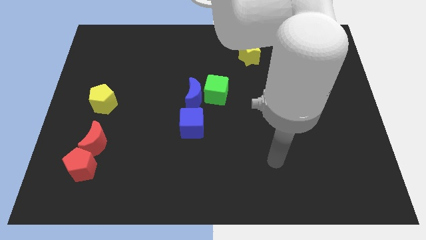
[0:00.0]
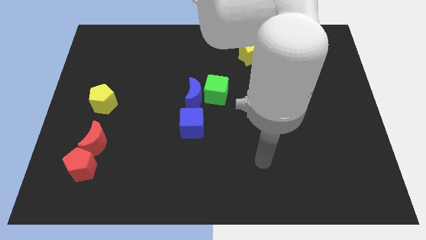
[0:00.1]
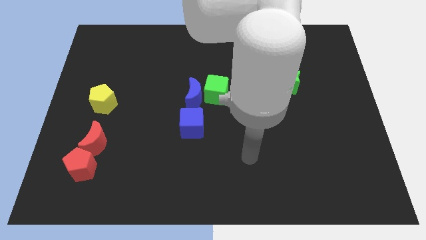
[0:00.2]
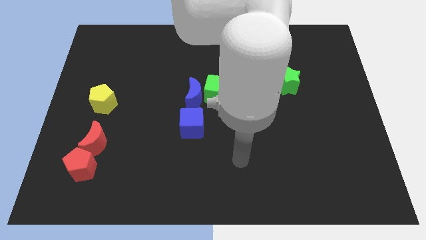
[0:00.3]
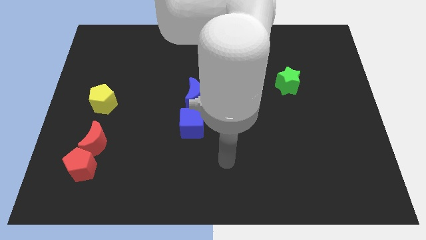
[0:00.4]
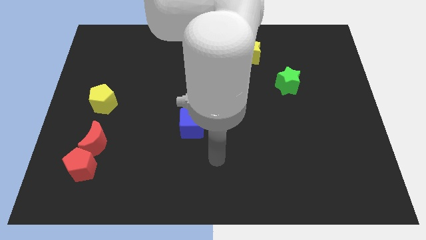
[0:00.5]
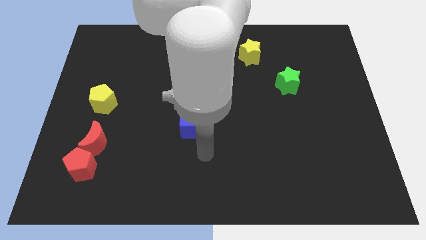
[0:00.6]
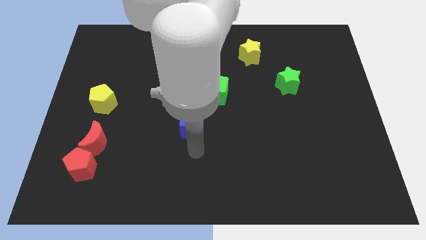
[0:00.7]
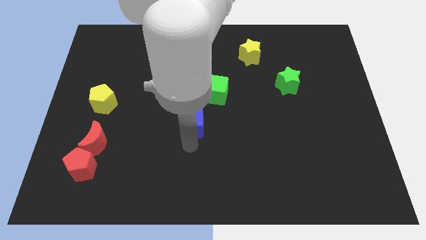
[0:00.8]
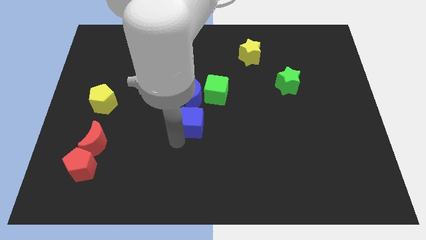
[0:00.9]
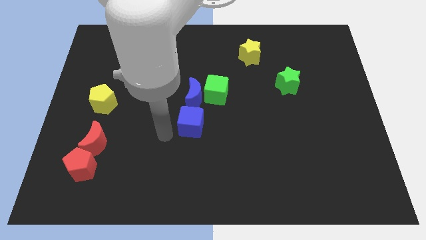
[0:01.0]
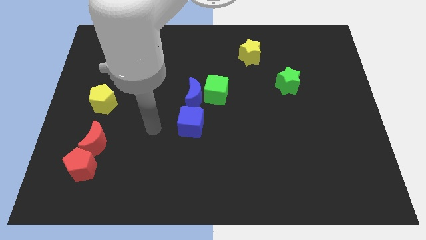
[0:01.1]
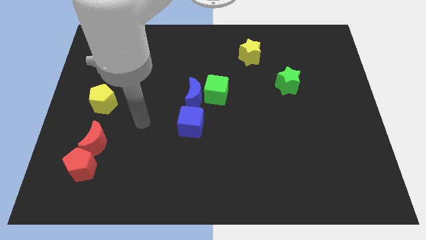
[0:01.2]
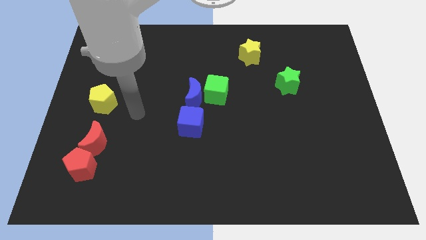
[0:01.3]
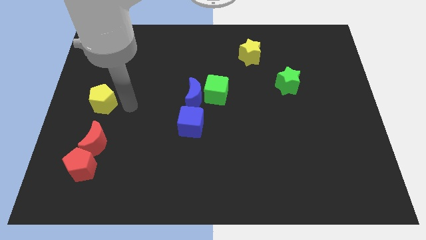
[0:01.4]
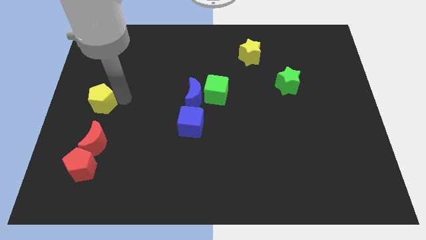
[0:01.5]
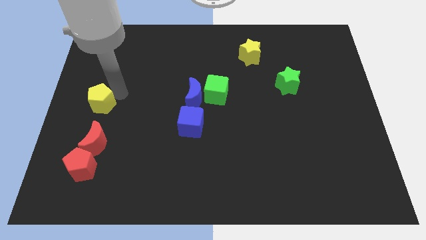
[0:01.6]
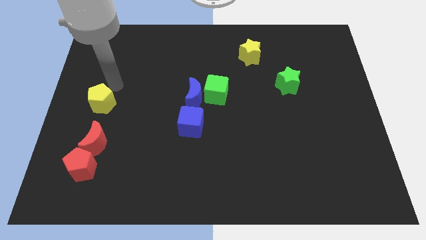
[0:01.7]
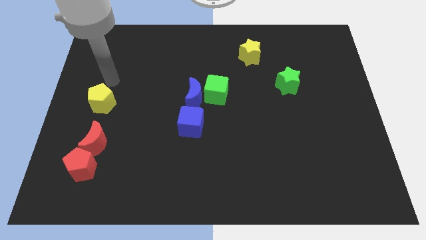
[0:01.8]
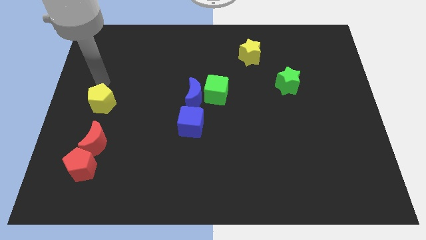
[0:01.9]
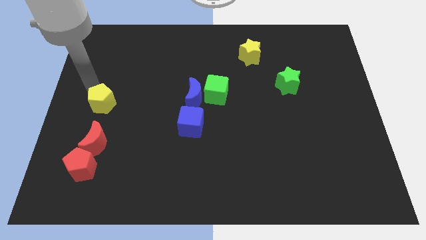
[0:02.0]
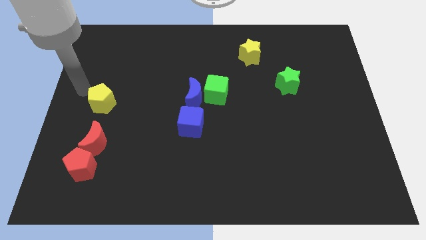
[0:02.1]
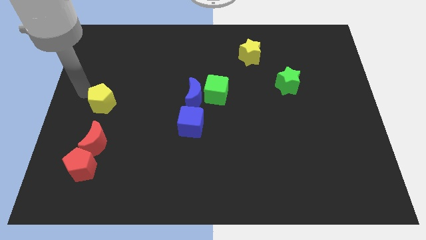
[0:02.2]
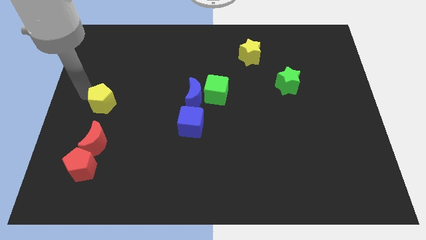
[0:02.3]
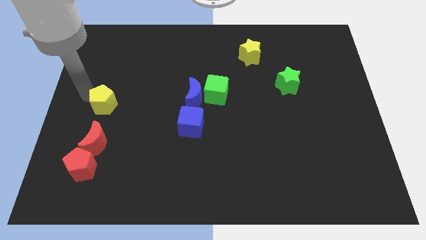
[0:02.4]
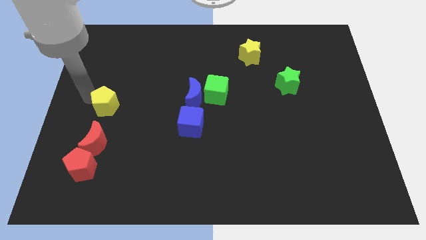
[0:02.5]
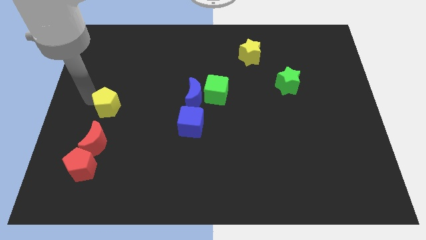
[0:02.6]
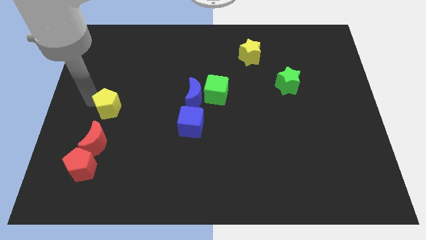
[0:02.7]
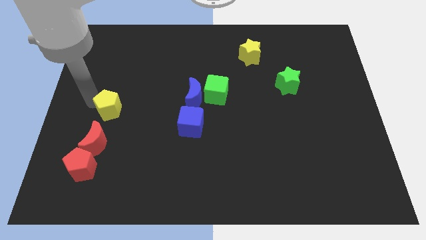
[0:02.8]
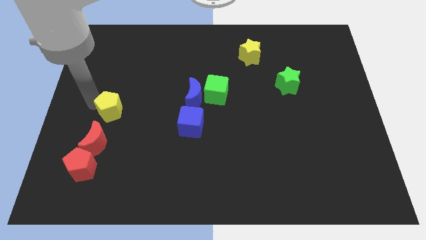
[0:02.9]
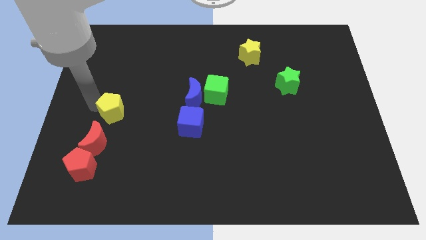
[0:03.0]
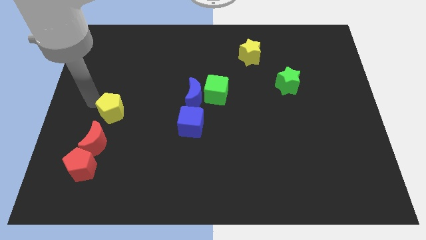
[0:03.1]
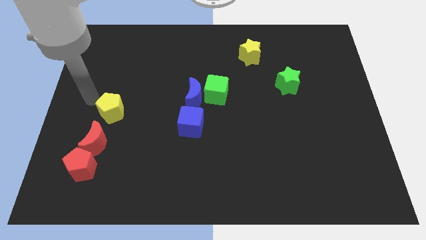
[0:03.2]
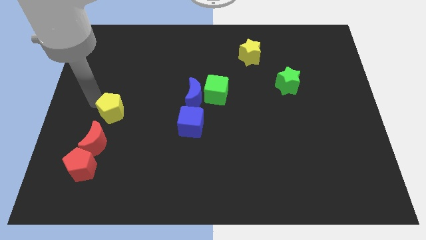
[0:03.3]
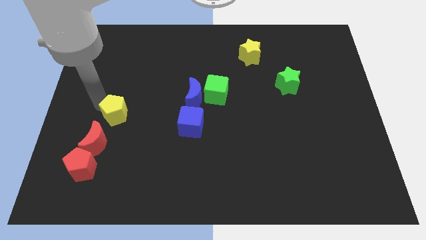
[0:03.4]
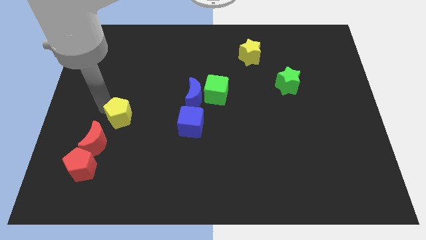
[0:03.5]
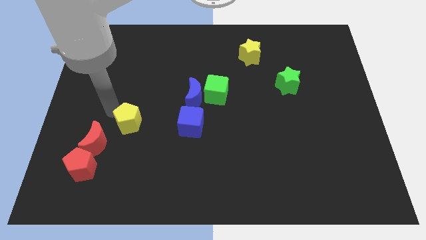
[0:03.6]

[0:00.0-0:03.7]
push the yellow pentagon a little down and right

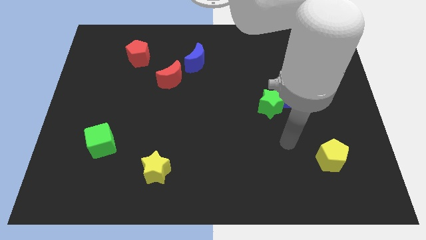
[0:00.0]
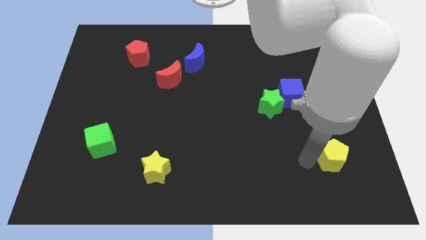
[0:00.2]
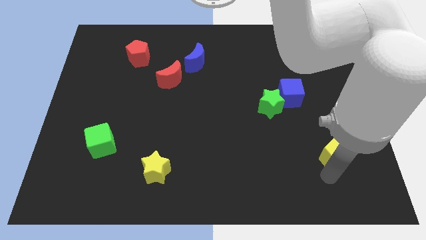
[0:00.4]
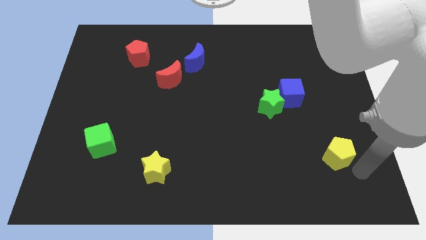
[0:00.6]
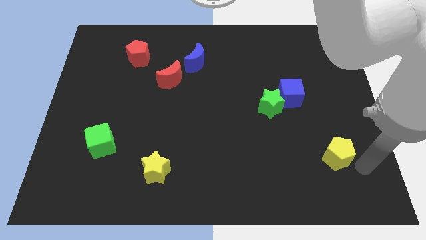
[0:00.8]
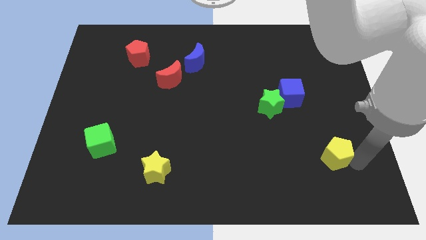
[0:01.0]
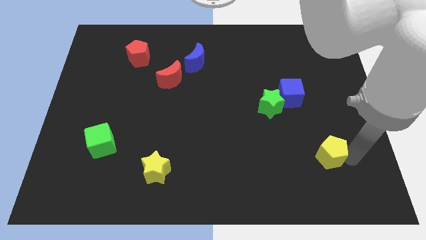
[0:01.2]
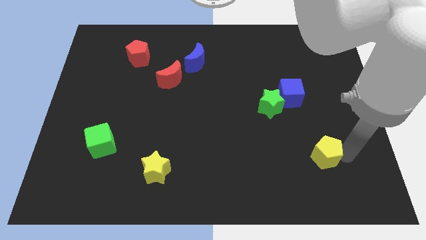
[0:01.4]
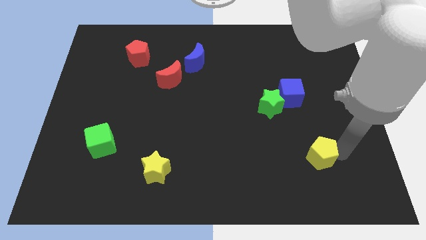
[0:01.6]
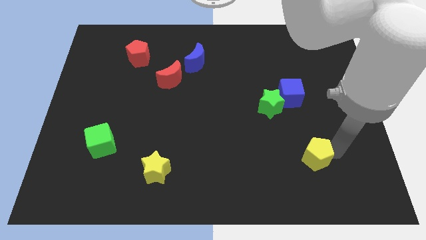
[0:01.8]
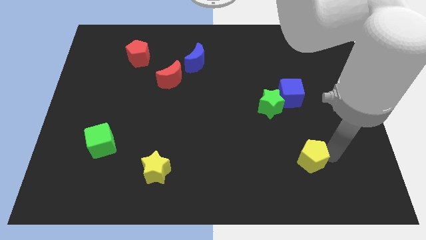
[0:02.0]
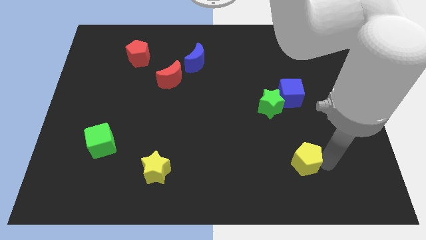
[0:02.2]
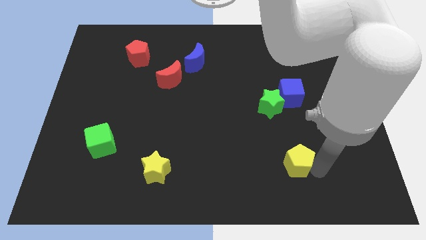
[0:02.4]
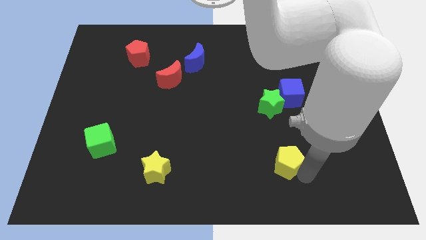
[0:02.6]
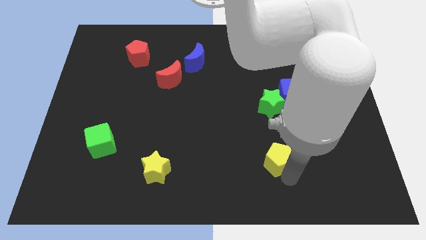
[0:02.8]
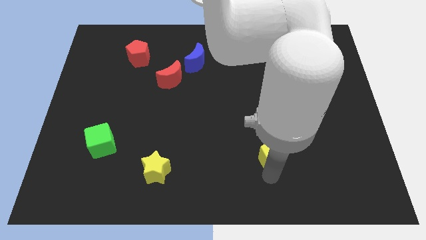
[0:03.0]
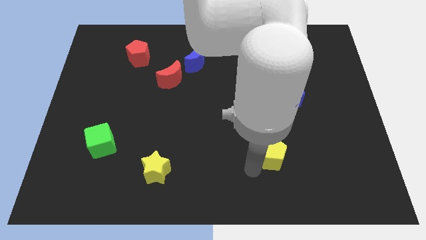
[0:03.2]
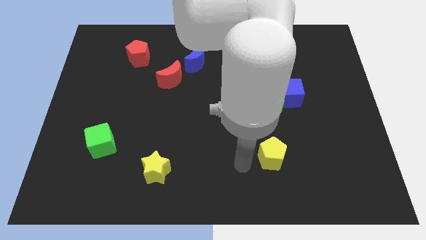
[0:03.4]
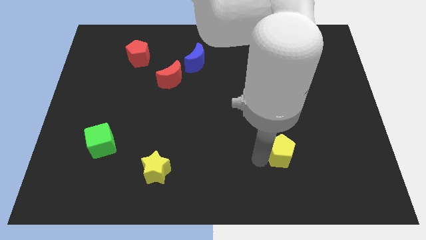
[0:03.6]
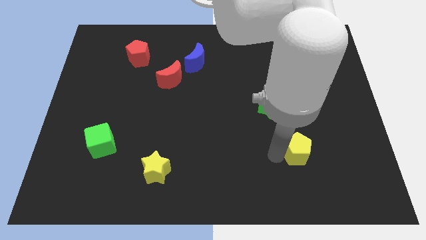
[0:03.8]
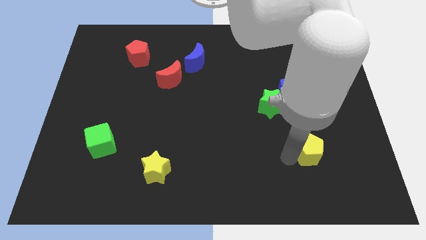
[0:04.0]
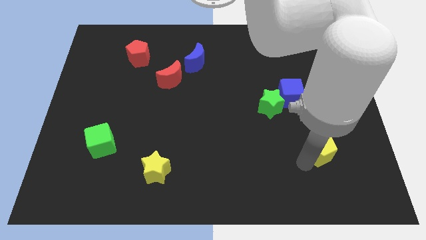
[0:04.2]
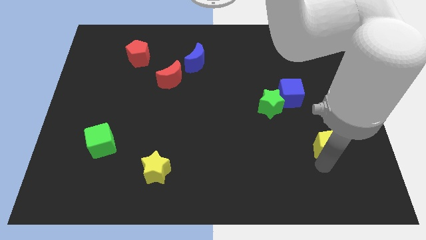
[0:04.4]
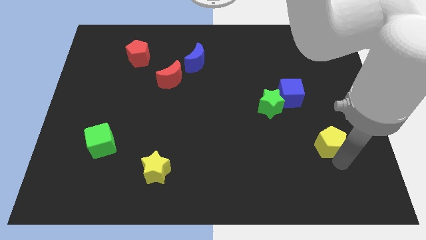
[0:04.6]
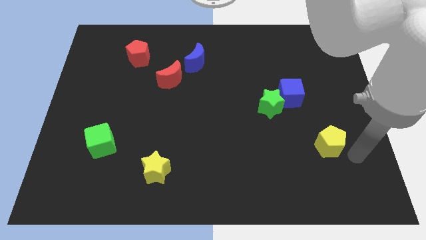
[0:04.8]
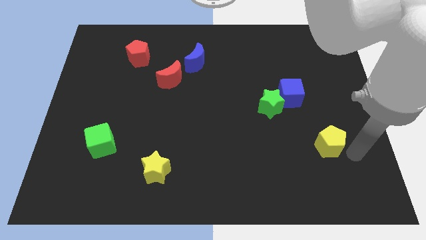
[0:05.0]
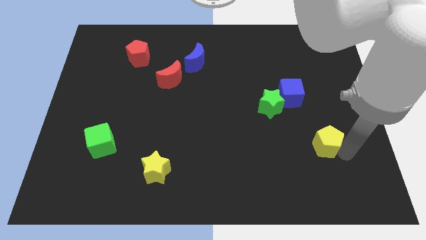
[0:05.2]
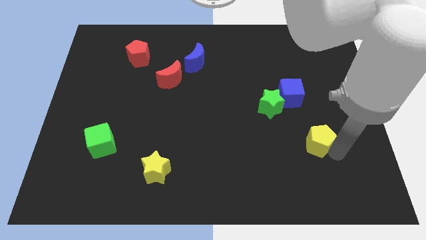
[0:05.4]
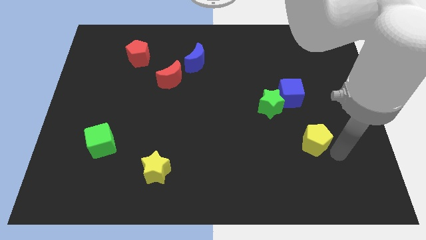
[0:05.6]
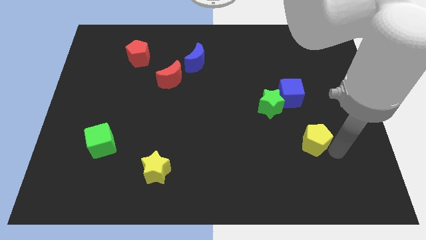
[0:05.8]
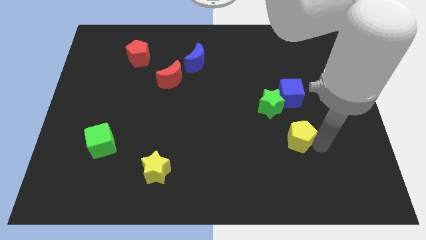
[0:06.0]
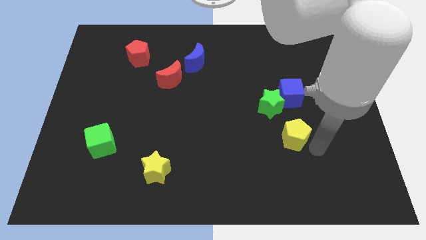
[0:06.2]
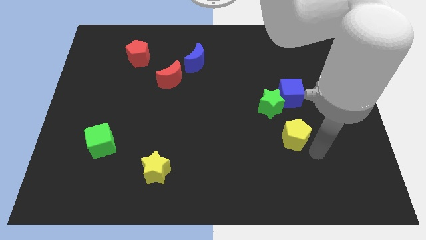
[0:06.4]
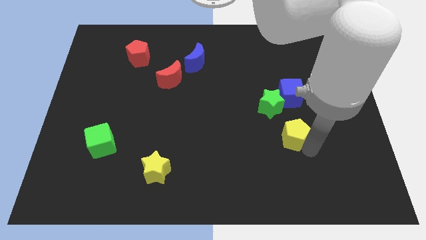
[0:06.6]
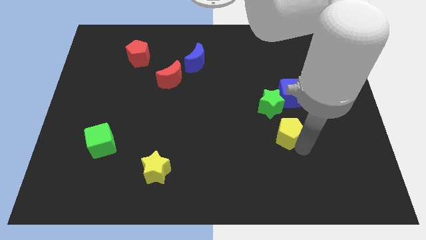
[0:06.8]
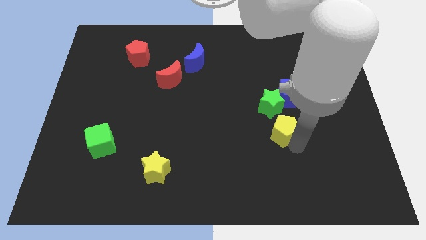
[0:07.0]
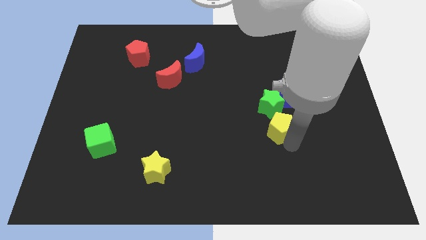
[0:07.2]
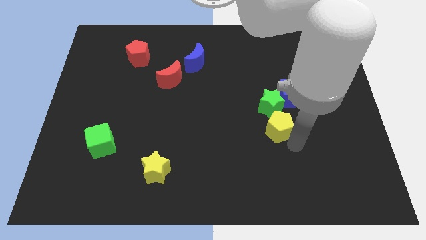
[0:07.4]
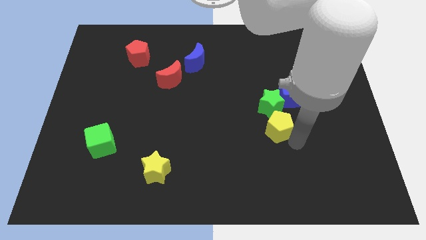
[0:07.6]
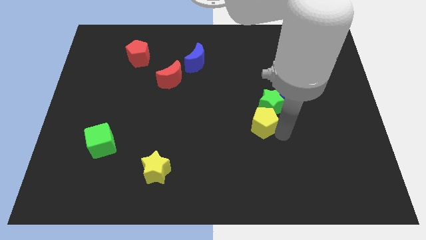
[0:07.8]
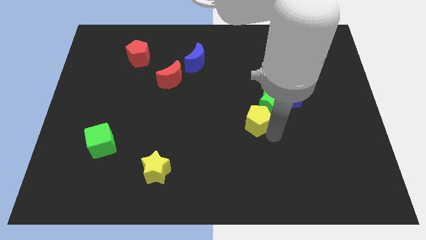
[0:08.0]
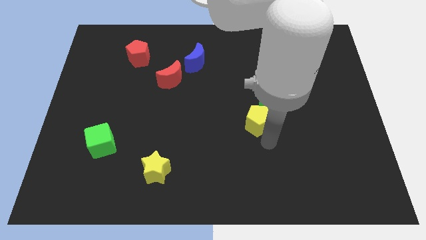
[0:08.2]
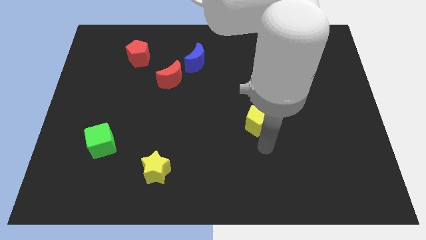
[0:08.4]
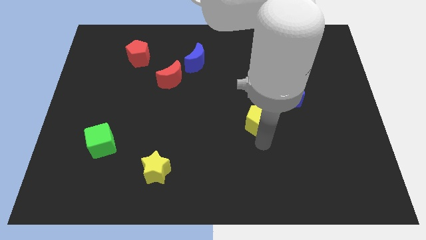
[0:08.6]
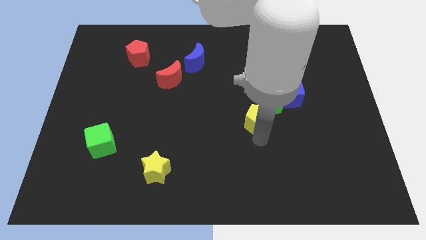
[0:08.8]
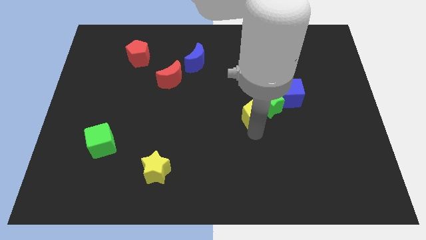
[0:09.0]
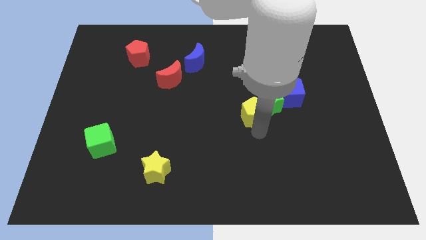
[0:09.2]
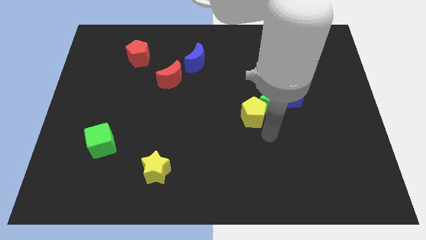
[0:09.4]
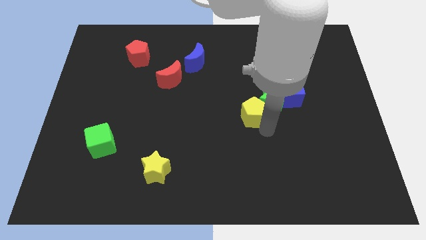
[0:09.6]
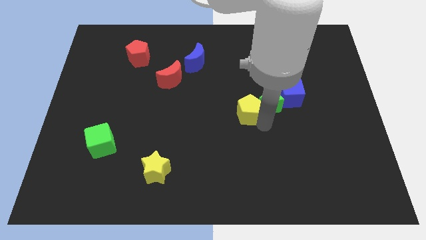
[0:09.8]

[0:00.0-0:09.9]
slide the yellow pentagon upwards and to the left
